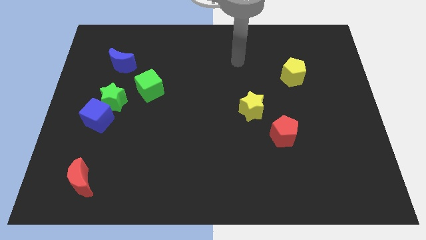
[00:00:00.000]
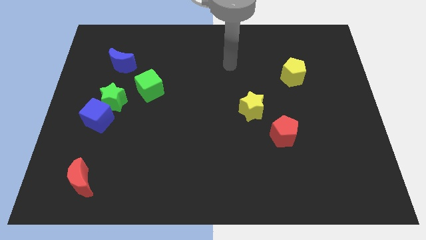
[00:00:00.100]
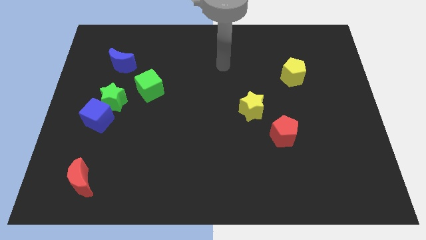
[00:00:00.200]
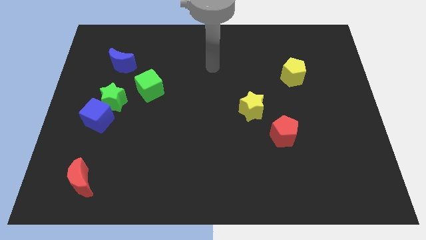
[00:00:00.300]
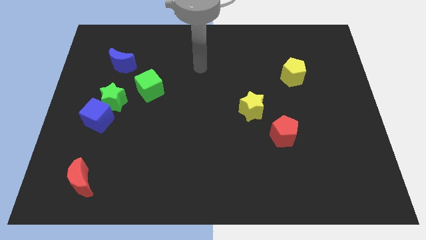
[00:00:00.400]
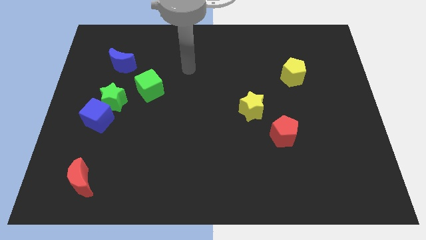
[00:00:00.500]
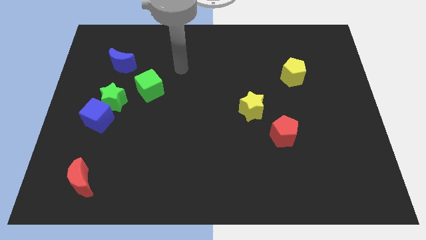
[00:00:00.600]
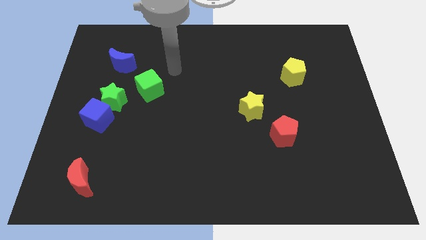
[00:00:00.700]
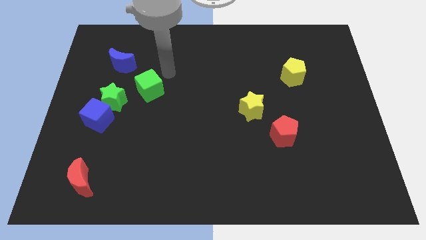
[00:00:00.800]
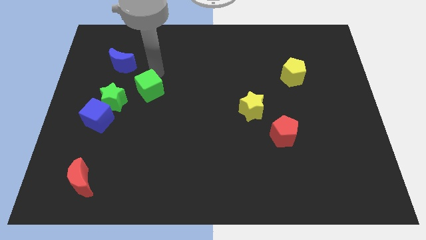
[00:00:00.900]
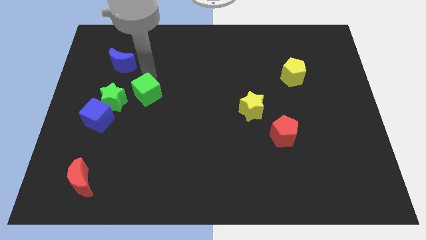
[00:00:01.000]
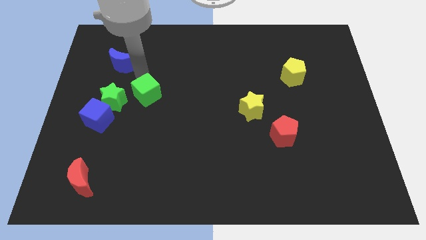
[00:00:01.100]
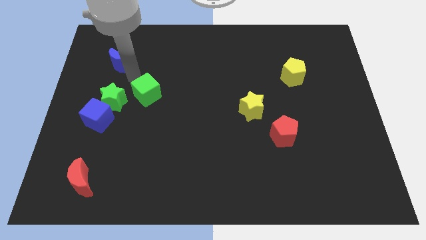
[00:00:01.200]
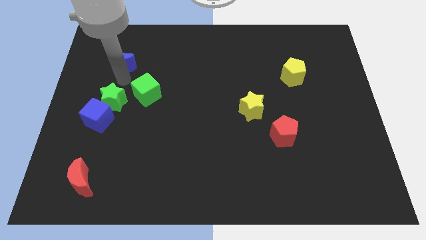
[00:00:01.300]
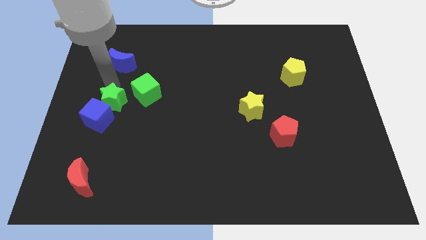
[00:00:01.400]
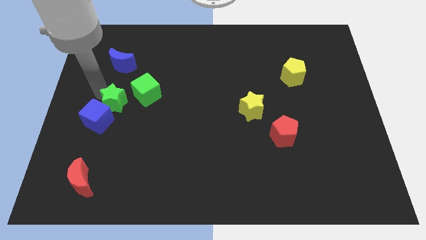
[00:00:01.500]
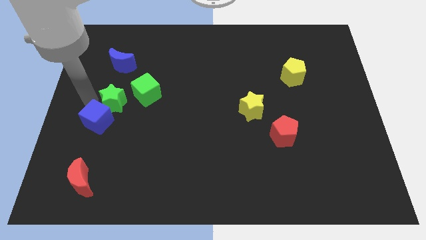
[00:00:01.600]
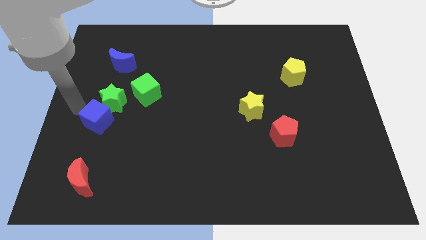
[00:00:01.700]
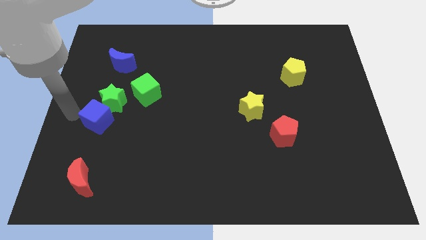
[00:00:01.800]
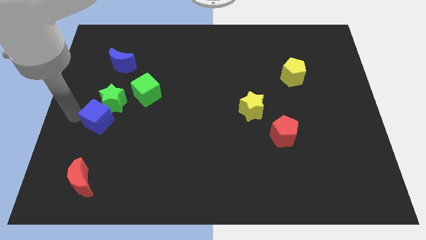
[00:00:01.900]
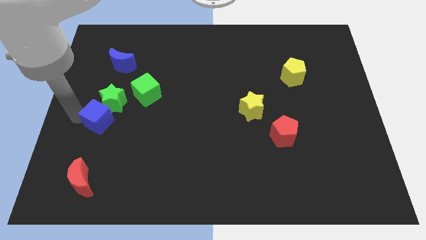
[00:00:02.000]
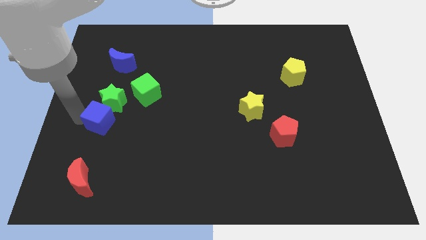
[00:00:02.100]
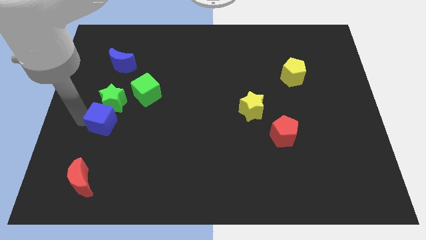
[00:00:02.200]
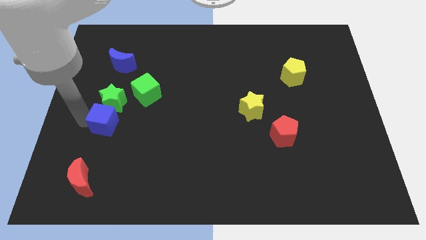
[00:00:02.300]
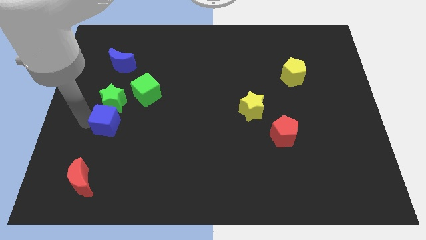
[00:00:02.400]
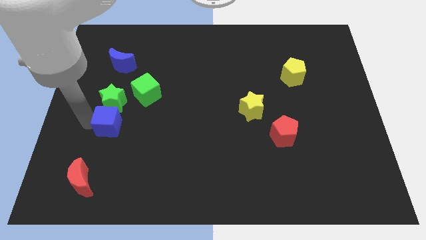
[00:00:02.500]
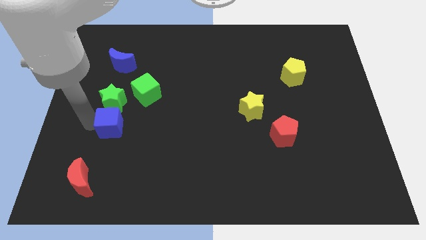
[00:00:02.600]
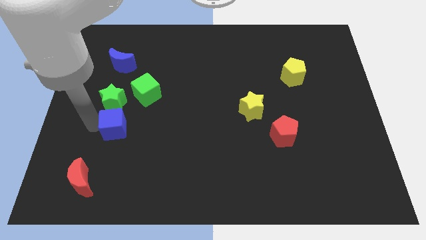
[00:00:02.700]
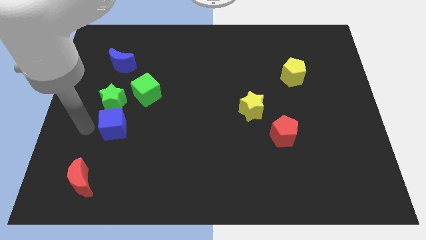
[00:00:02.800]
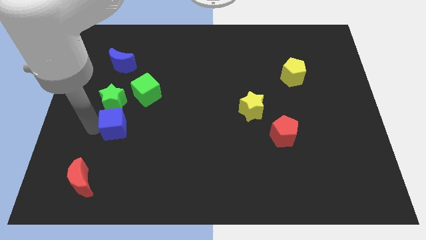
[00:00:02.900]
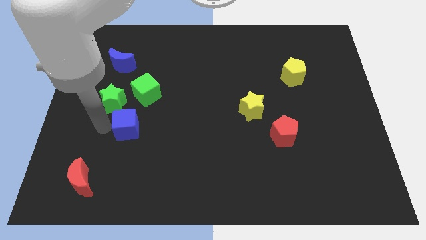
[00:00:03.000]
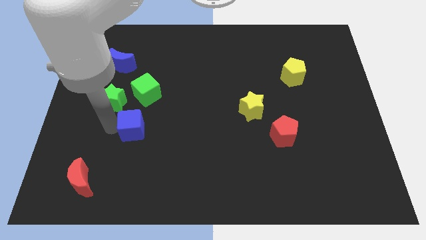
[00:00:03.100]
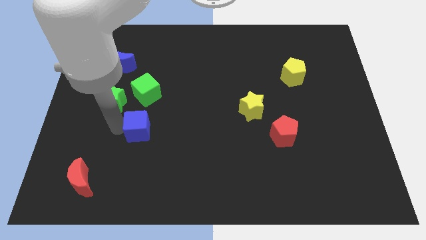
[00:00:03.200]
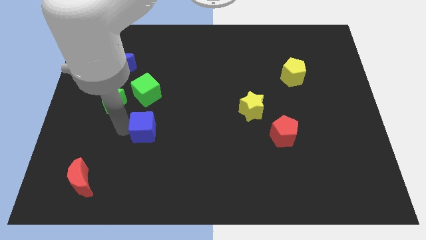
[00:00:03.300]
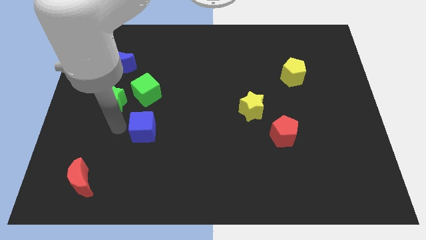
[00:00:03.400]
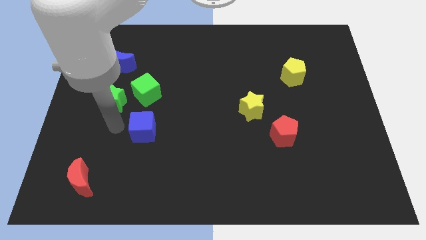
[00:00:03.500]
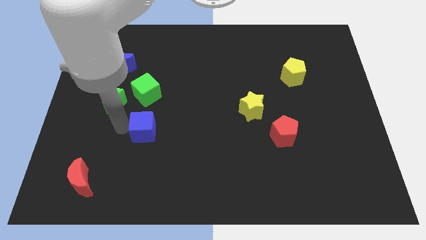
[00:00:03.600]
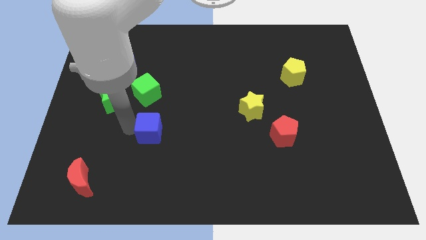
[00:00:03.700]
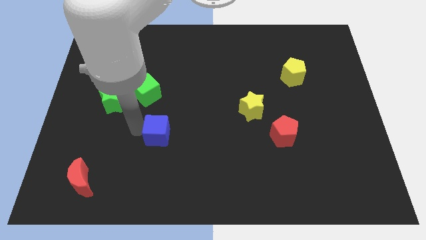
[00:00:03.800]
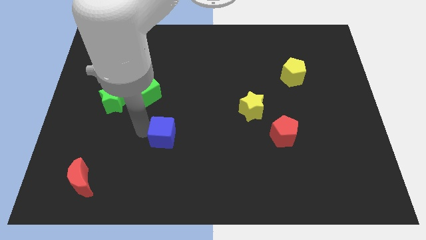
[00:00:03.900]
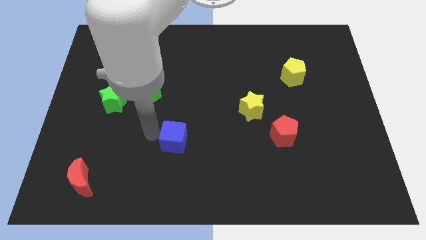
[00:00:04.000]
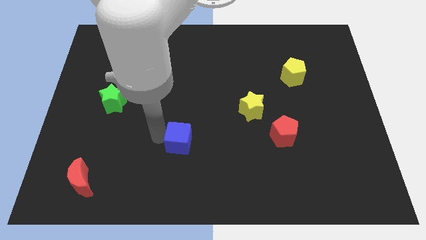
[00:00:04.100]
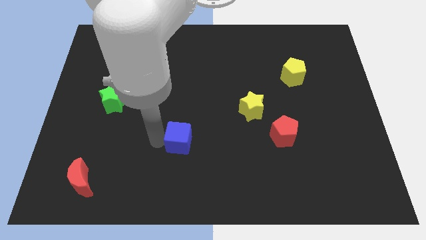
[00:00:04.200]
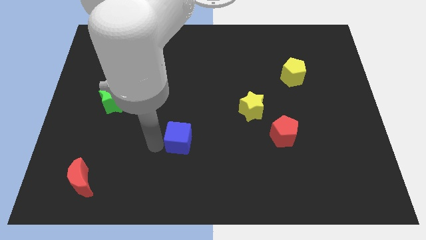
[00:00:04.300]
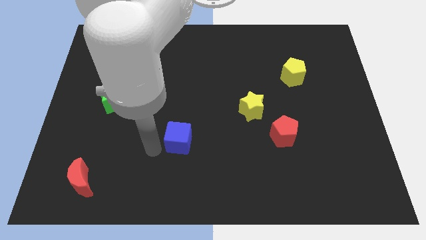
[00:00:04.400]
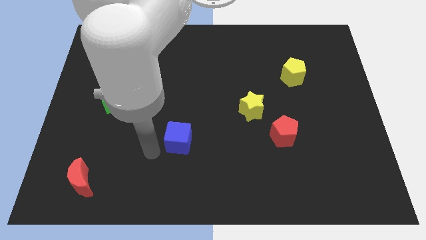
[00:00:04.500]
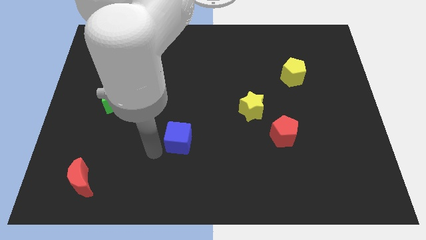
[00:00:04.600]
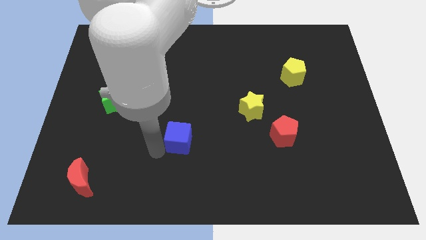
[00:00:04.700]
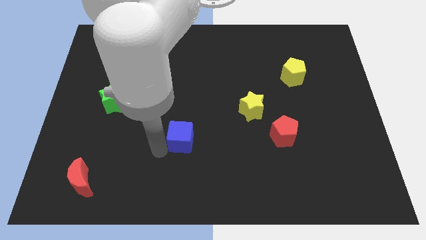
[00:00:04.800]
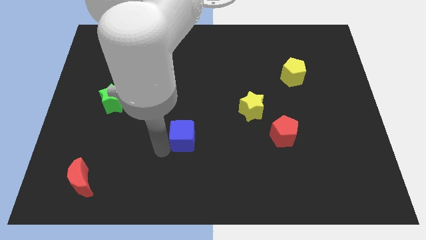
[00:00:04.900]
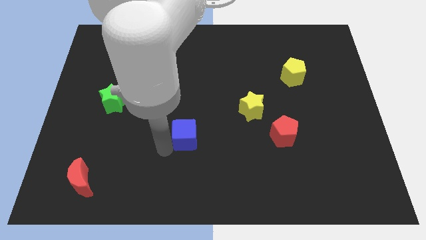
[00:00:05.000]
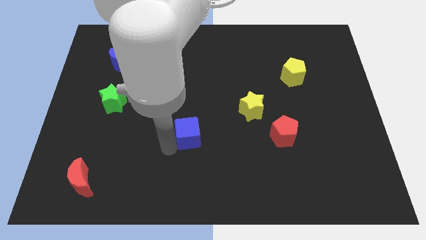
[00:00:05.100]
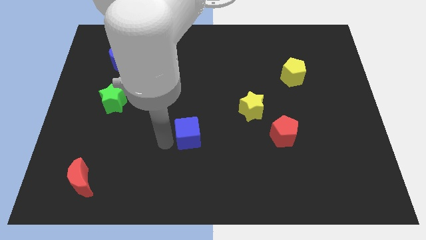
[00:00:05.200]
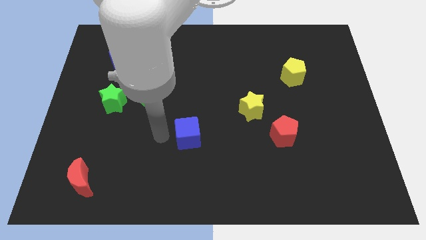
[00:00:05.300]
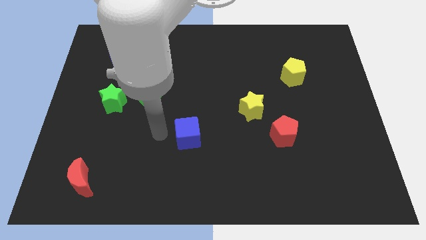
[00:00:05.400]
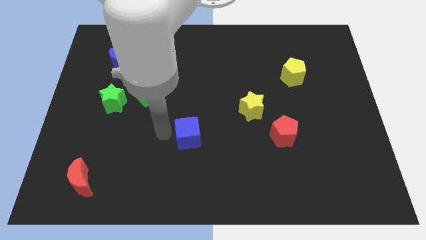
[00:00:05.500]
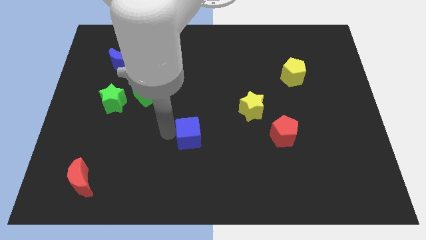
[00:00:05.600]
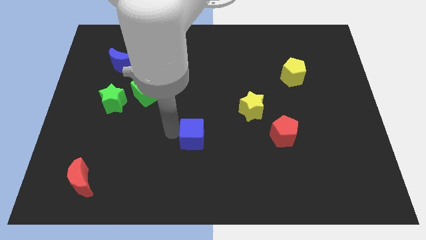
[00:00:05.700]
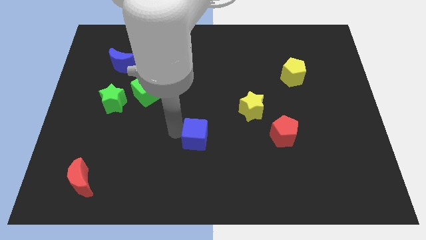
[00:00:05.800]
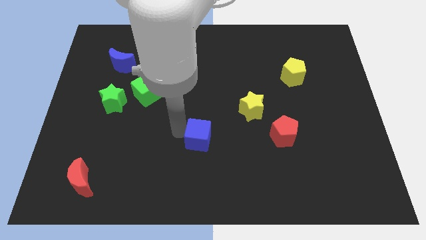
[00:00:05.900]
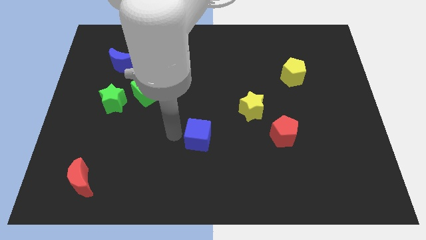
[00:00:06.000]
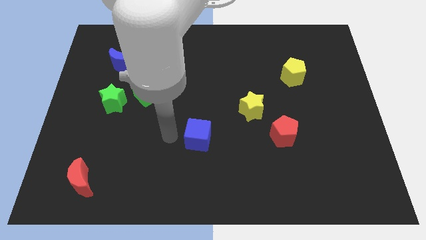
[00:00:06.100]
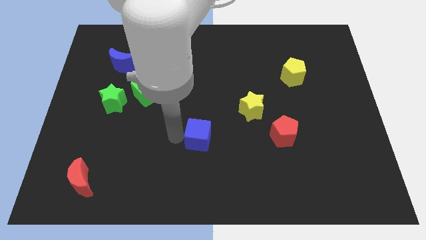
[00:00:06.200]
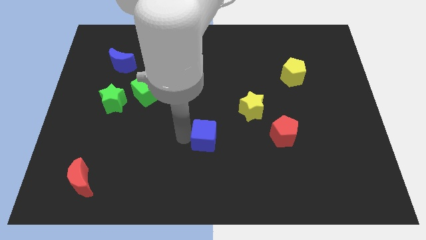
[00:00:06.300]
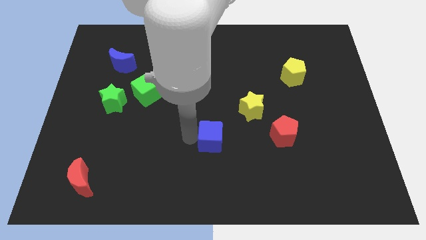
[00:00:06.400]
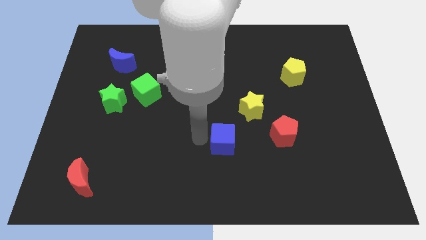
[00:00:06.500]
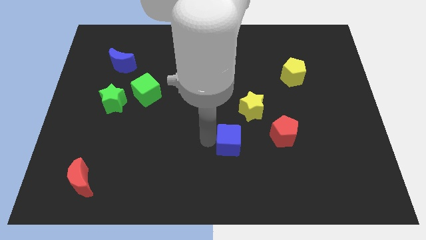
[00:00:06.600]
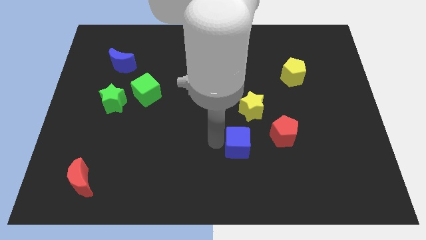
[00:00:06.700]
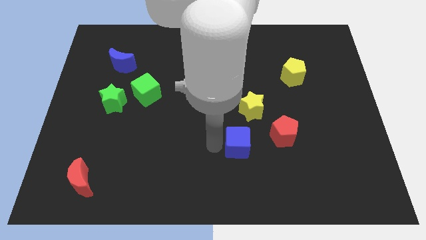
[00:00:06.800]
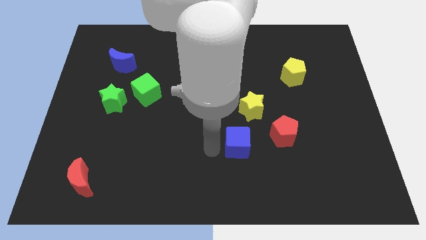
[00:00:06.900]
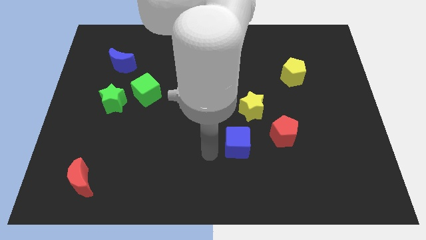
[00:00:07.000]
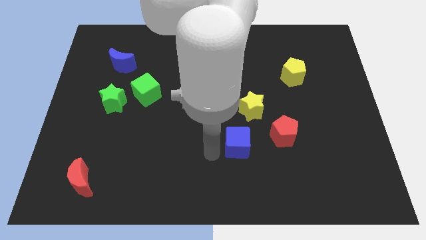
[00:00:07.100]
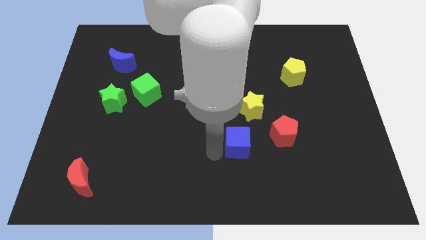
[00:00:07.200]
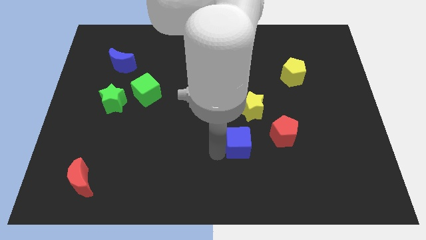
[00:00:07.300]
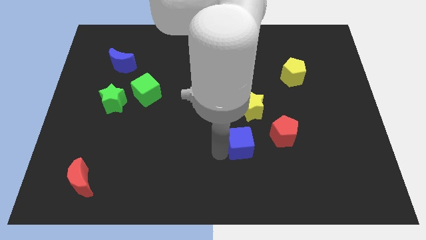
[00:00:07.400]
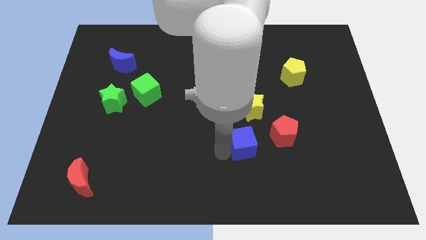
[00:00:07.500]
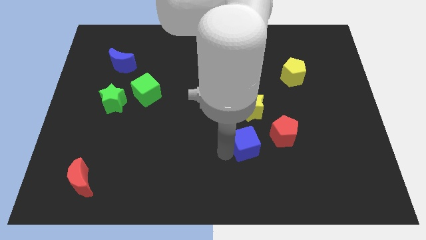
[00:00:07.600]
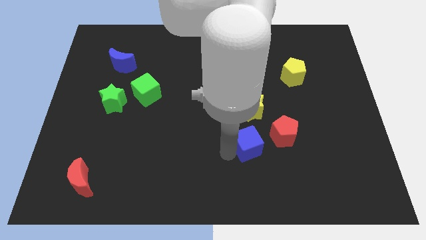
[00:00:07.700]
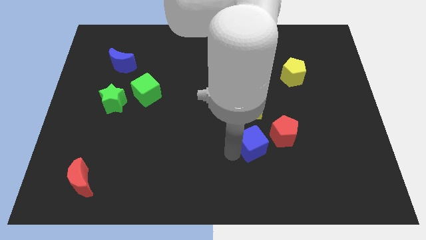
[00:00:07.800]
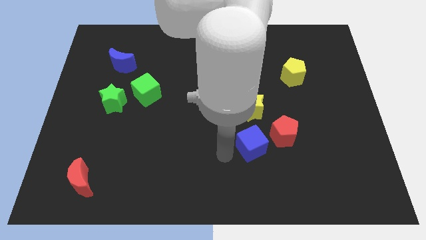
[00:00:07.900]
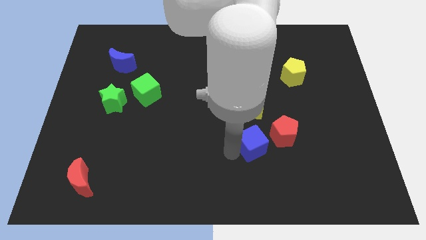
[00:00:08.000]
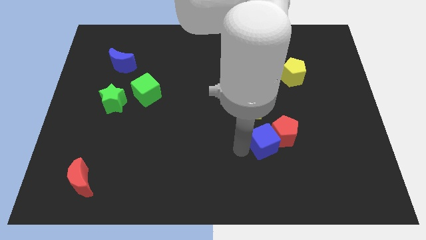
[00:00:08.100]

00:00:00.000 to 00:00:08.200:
put the blue cube close to the red pentagon
